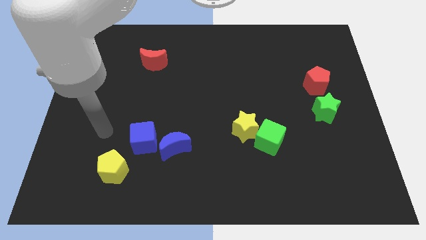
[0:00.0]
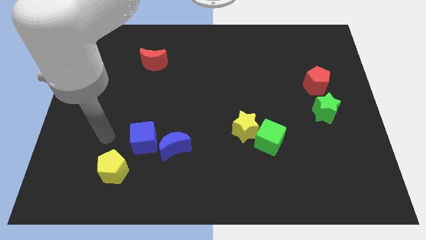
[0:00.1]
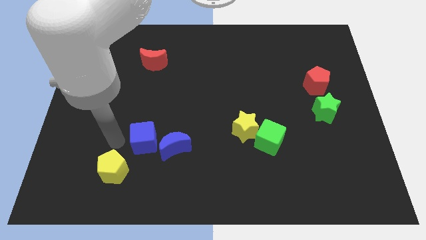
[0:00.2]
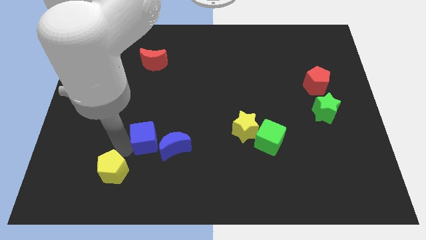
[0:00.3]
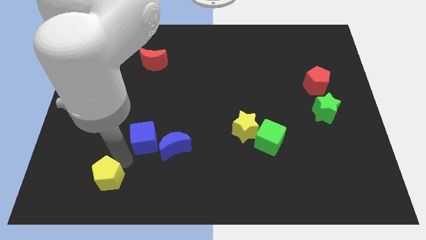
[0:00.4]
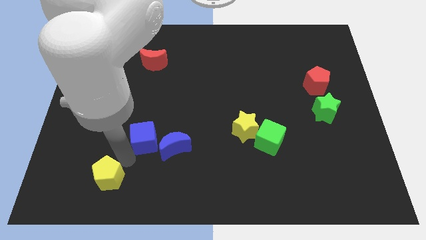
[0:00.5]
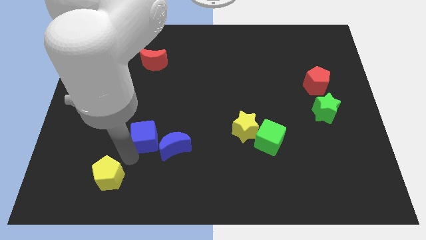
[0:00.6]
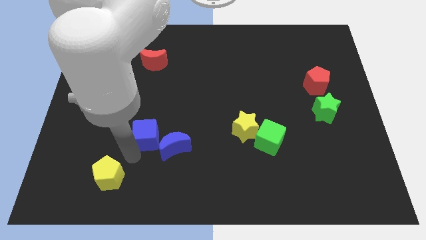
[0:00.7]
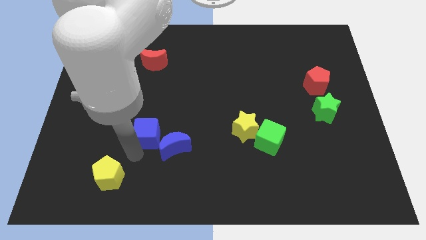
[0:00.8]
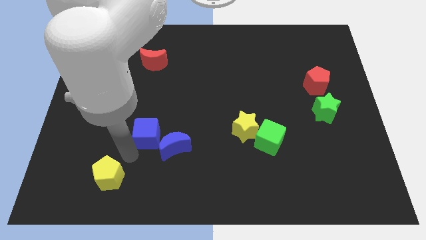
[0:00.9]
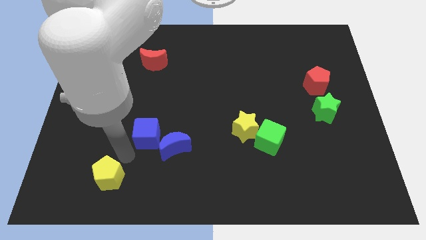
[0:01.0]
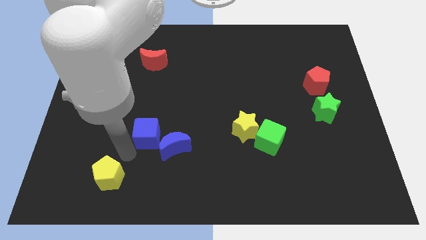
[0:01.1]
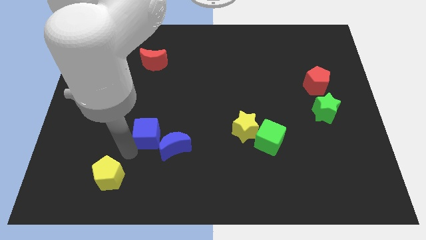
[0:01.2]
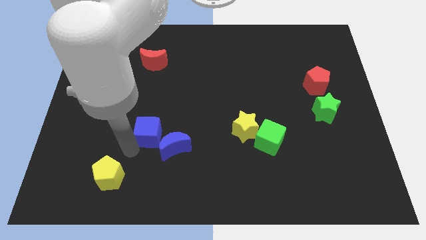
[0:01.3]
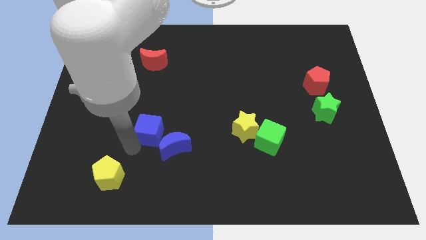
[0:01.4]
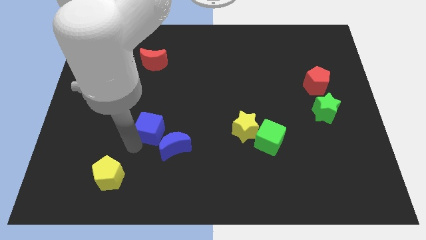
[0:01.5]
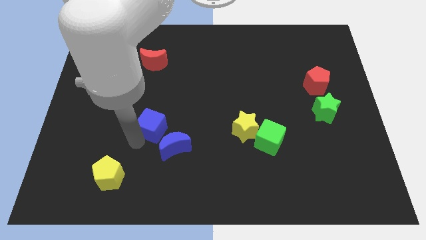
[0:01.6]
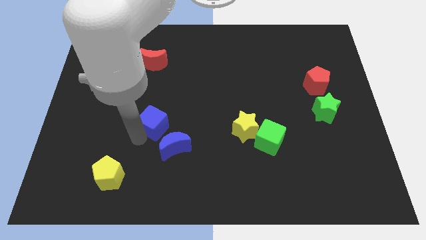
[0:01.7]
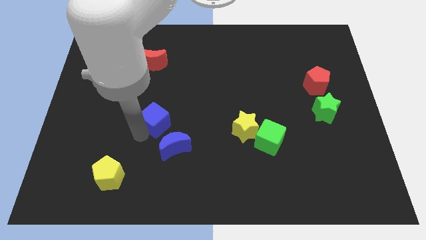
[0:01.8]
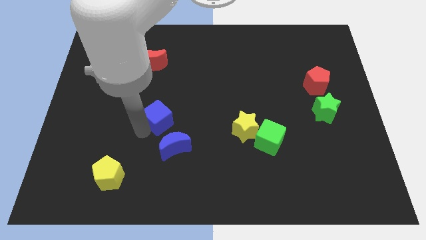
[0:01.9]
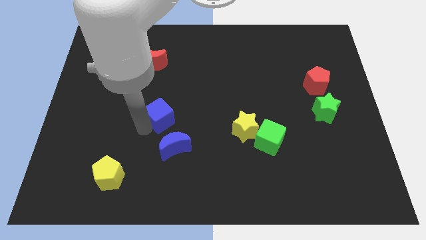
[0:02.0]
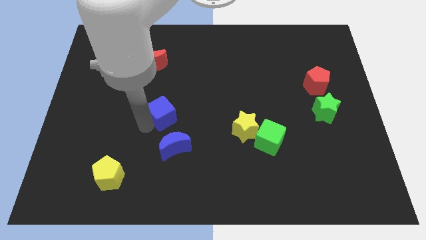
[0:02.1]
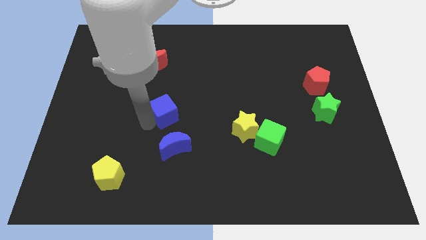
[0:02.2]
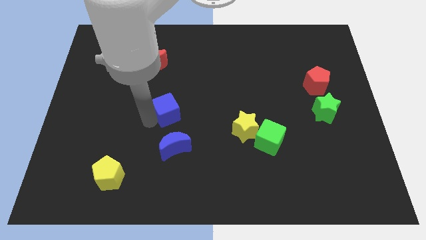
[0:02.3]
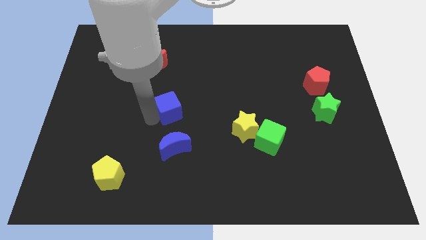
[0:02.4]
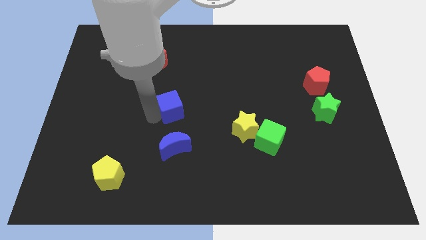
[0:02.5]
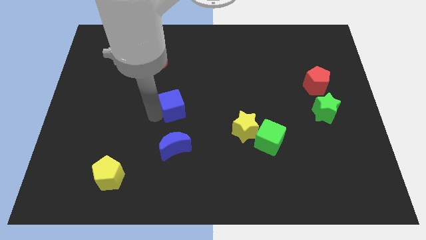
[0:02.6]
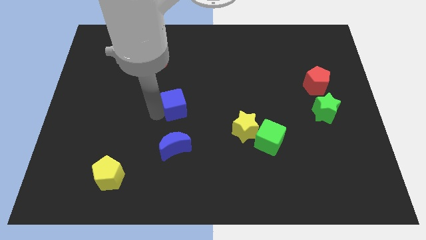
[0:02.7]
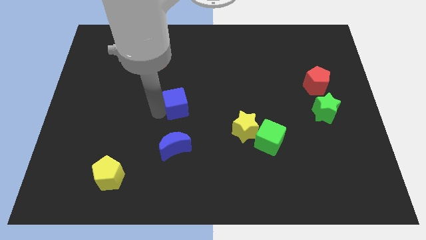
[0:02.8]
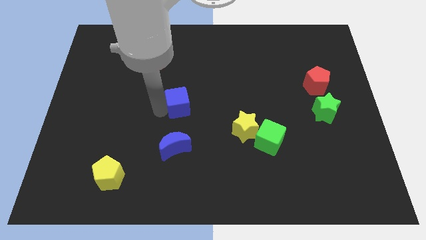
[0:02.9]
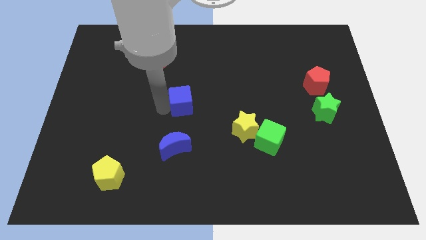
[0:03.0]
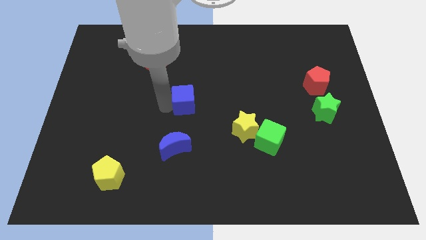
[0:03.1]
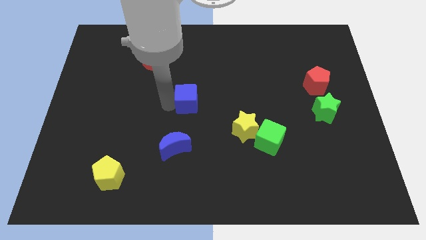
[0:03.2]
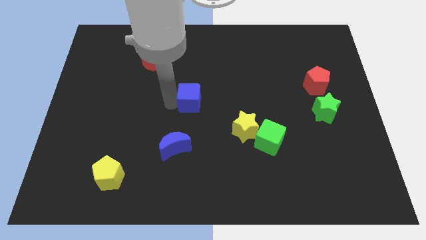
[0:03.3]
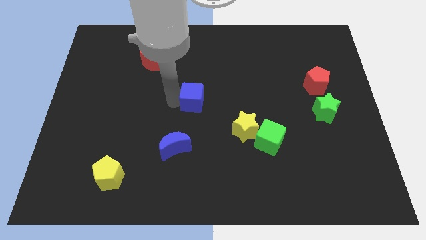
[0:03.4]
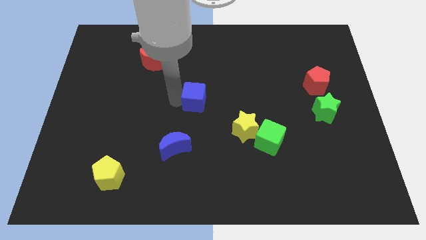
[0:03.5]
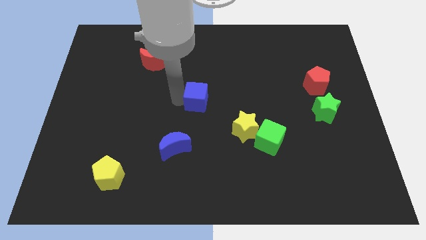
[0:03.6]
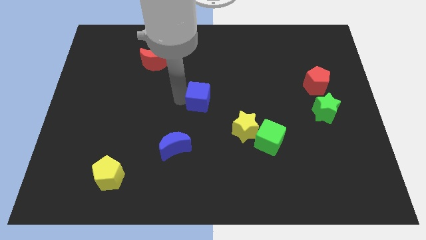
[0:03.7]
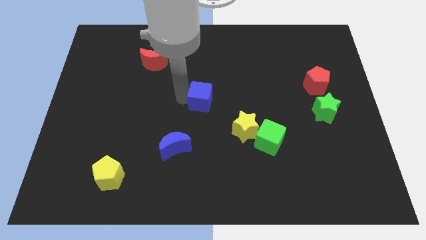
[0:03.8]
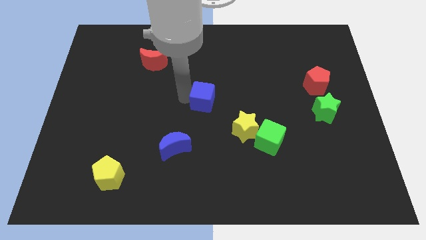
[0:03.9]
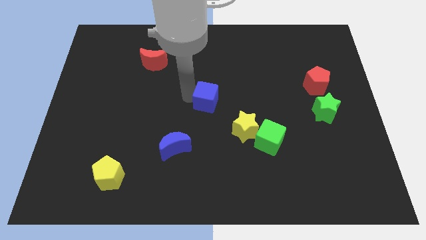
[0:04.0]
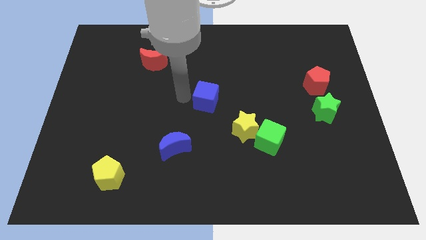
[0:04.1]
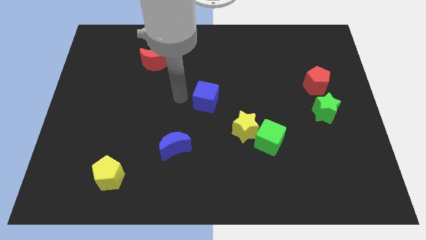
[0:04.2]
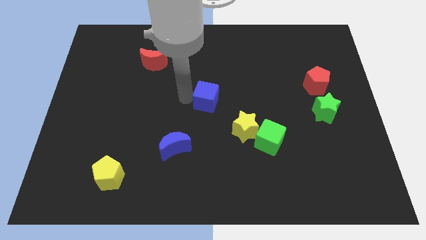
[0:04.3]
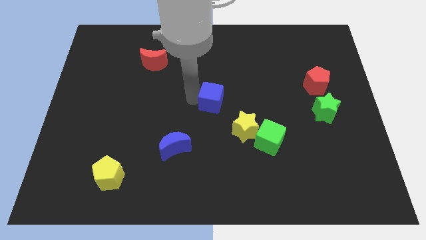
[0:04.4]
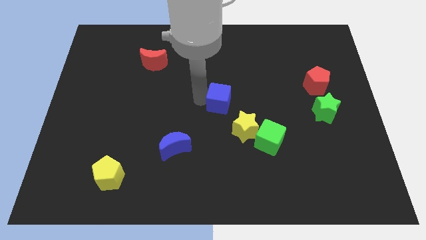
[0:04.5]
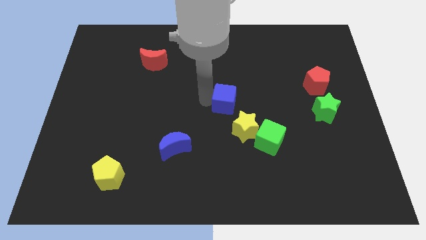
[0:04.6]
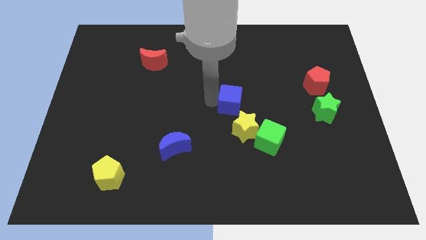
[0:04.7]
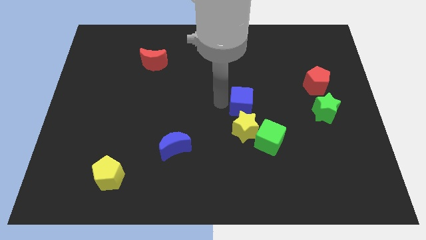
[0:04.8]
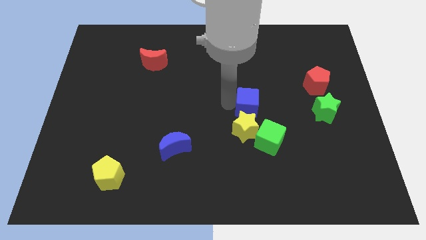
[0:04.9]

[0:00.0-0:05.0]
move the blue cube to the top of the green cube

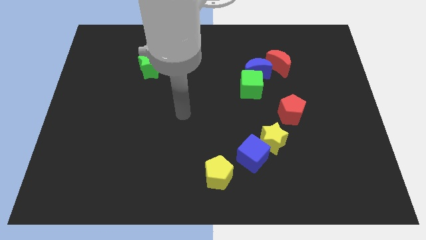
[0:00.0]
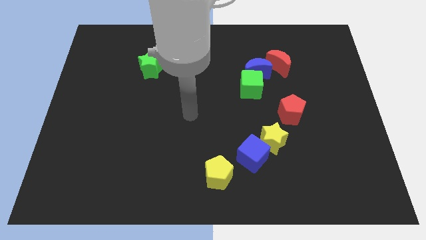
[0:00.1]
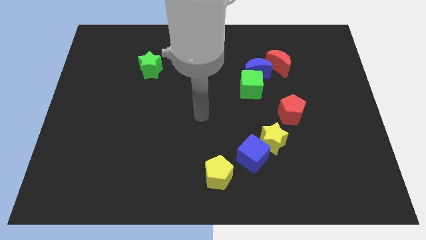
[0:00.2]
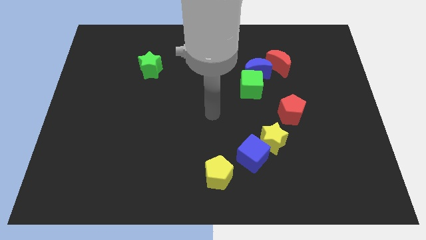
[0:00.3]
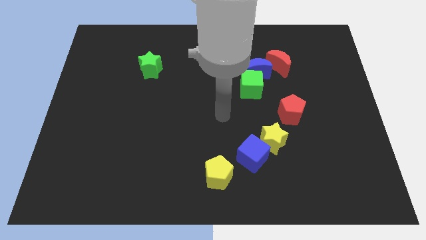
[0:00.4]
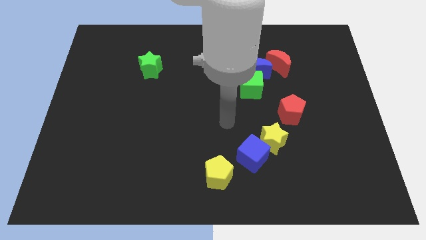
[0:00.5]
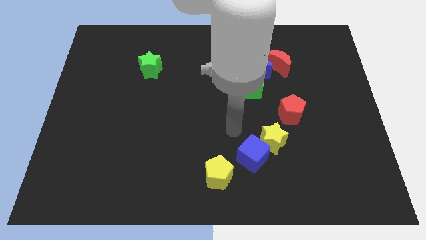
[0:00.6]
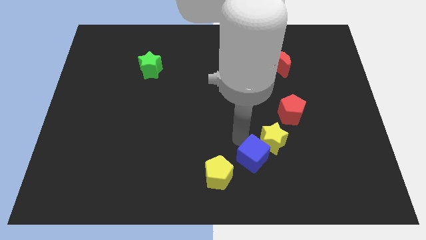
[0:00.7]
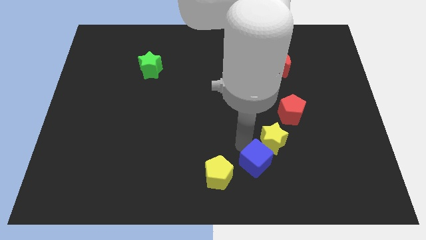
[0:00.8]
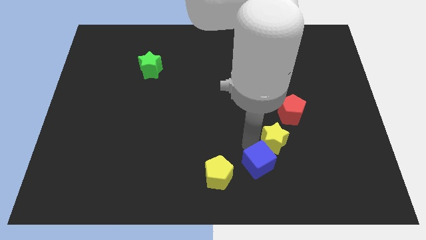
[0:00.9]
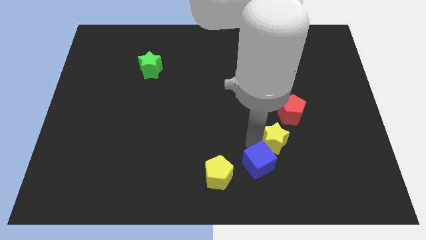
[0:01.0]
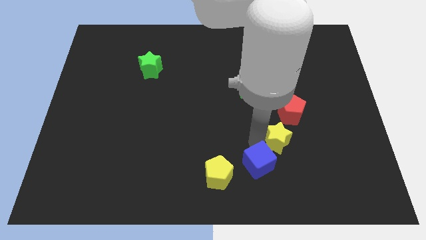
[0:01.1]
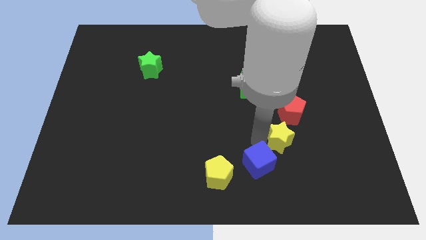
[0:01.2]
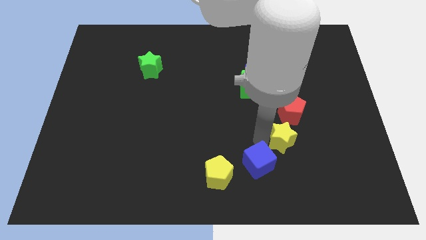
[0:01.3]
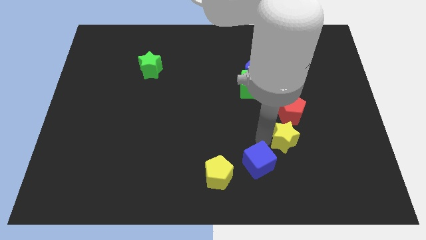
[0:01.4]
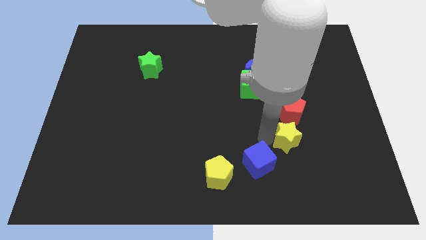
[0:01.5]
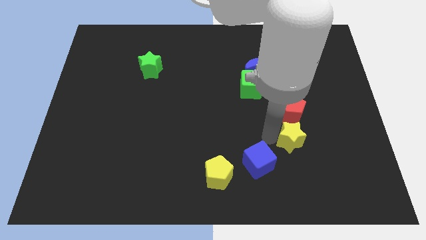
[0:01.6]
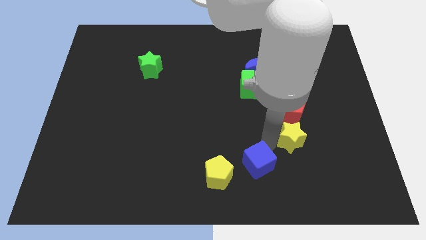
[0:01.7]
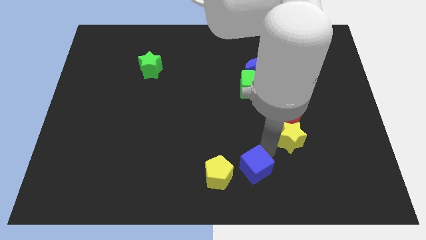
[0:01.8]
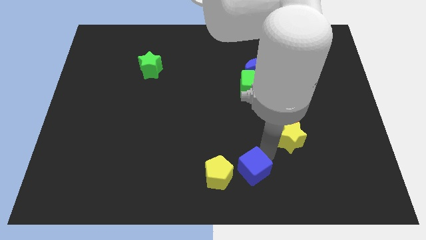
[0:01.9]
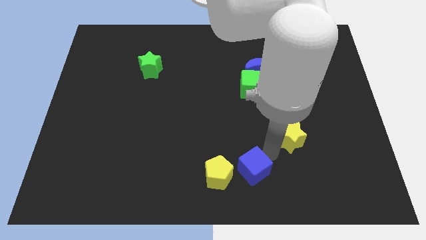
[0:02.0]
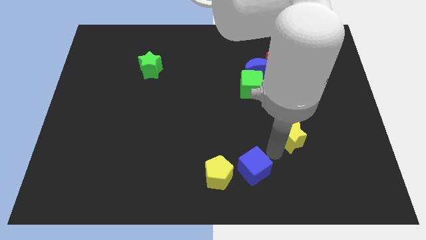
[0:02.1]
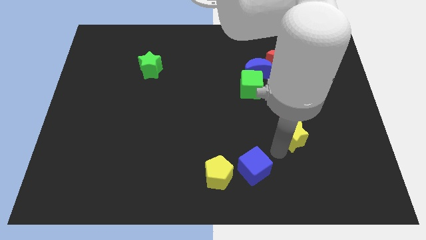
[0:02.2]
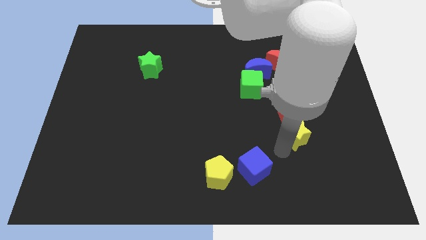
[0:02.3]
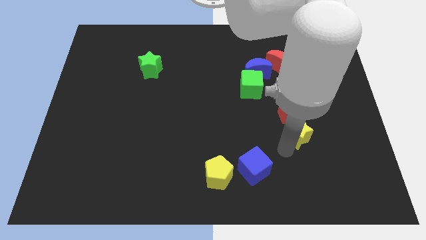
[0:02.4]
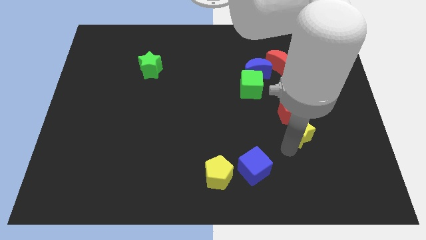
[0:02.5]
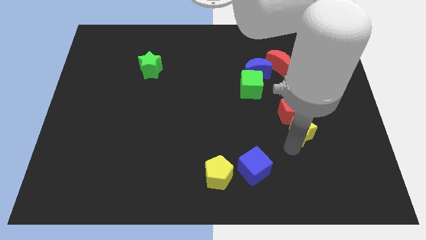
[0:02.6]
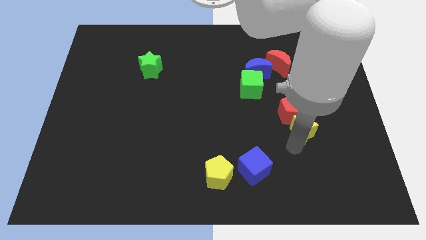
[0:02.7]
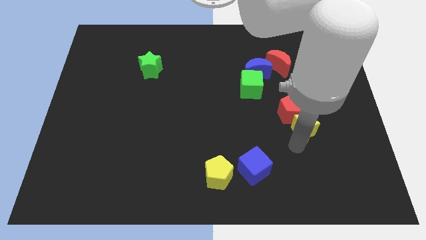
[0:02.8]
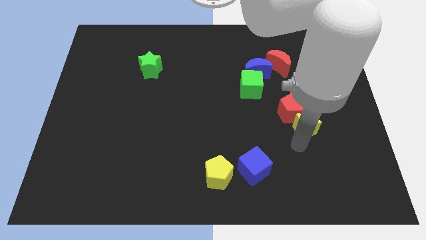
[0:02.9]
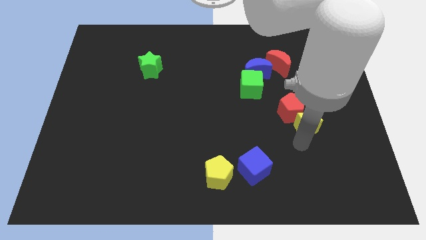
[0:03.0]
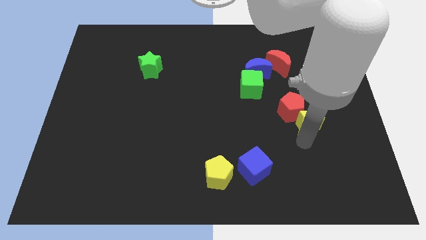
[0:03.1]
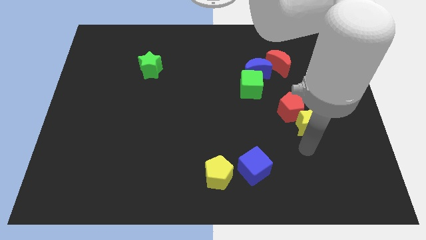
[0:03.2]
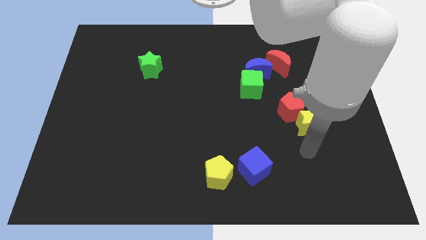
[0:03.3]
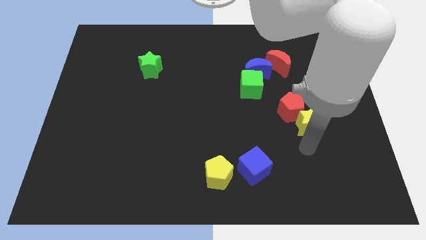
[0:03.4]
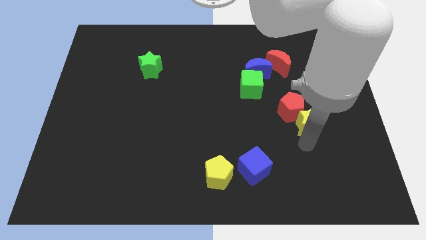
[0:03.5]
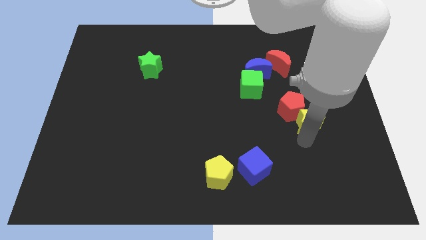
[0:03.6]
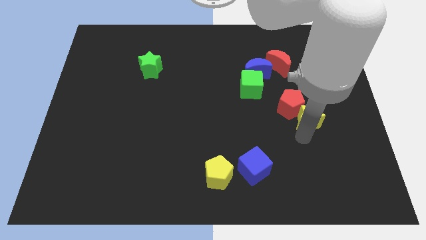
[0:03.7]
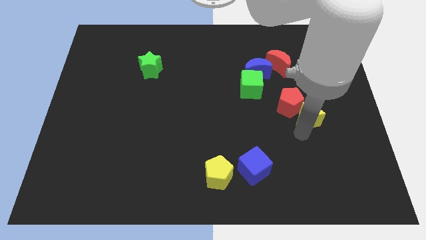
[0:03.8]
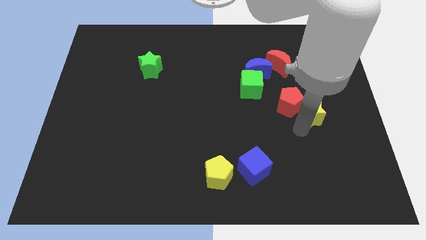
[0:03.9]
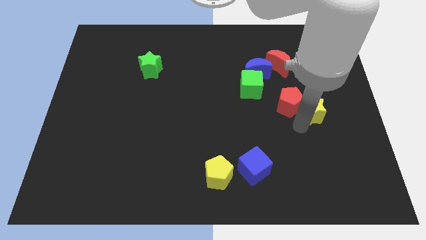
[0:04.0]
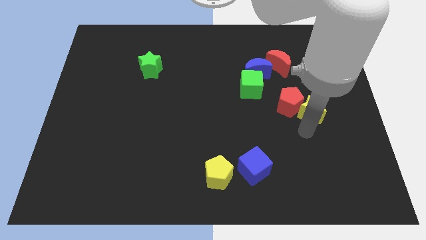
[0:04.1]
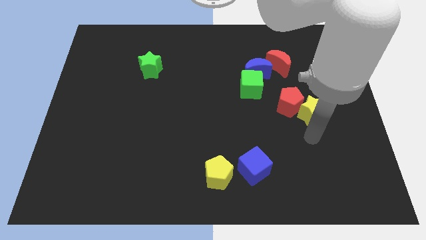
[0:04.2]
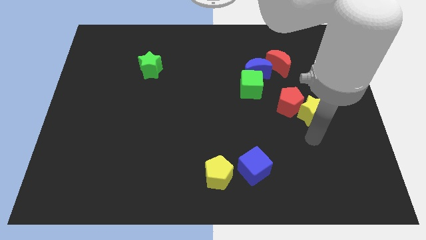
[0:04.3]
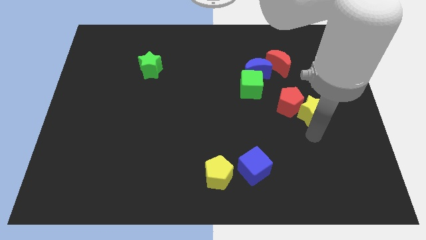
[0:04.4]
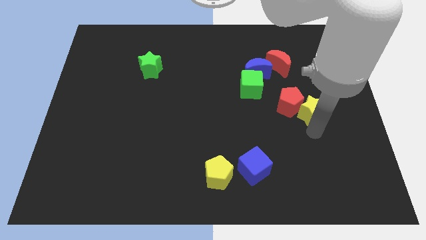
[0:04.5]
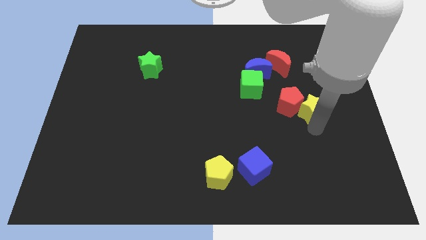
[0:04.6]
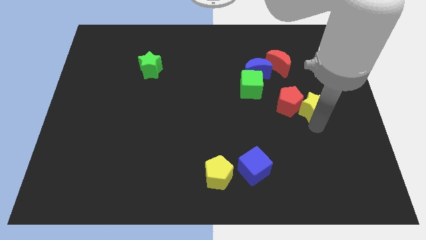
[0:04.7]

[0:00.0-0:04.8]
move the yellow star to the top right side of the red pentagon
